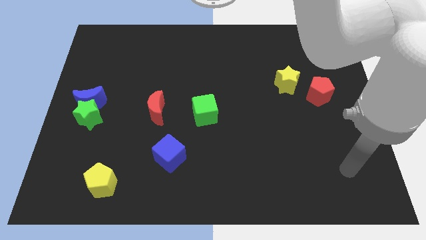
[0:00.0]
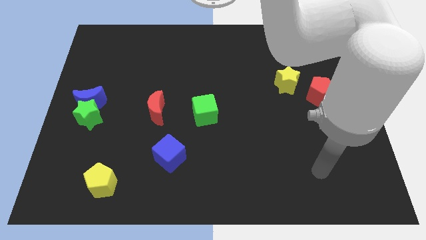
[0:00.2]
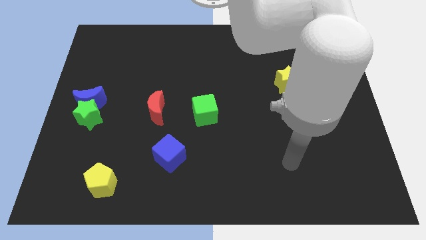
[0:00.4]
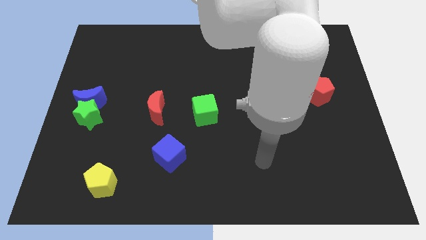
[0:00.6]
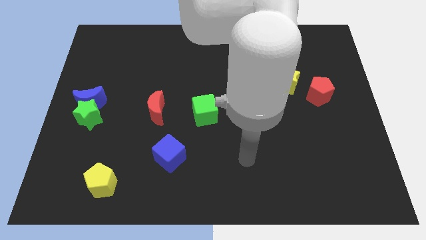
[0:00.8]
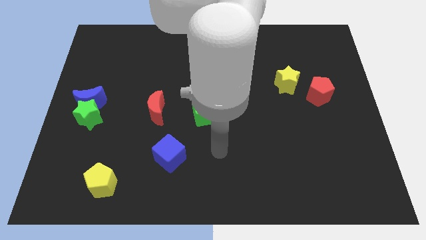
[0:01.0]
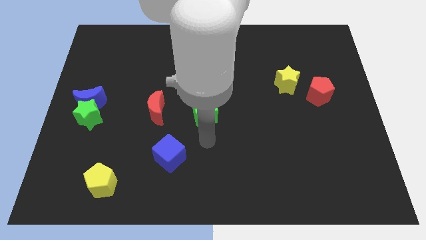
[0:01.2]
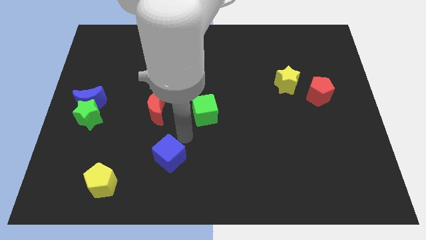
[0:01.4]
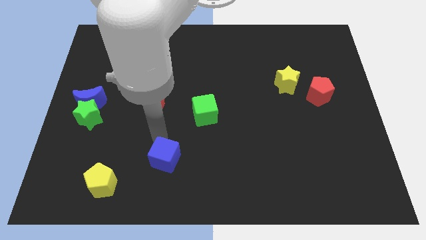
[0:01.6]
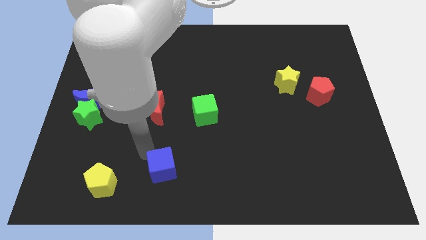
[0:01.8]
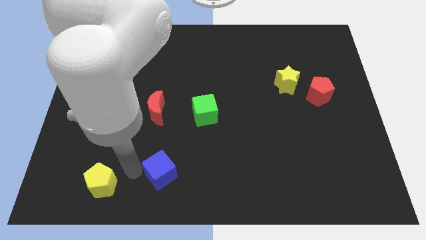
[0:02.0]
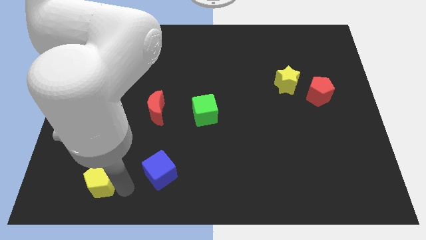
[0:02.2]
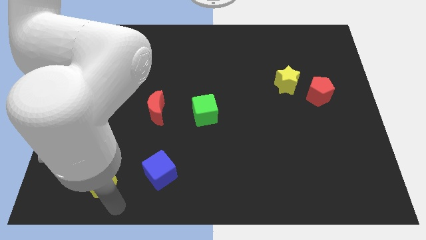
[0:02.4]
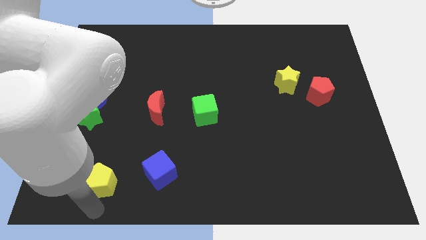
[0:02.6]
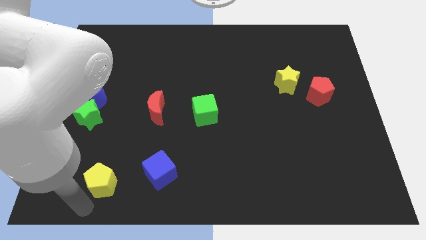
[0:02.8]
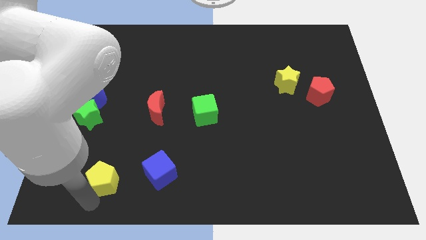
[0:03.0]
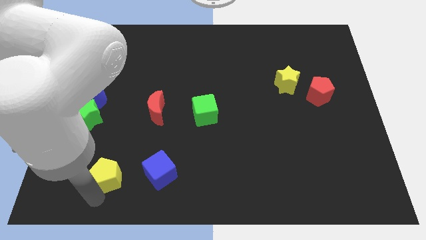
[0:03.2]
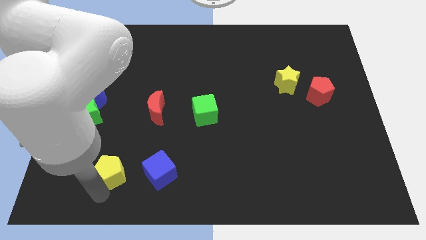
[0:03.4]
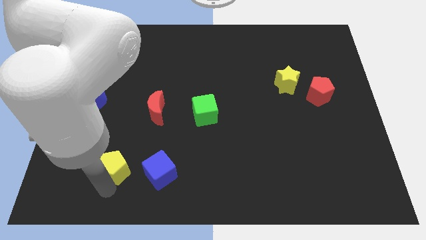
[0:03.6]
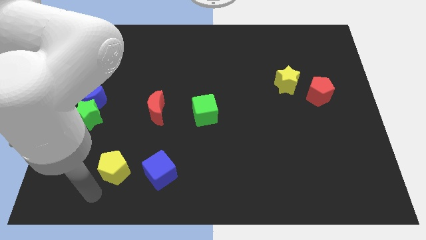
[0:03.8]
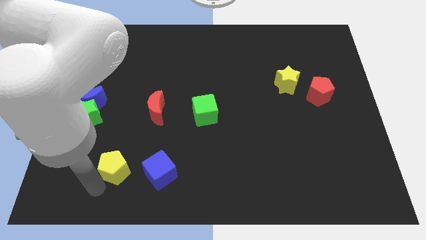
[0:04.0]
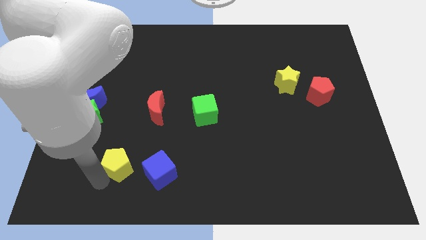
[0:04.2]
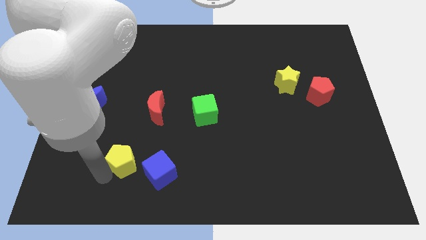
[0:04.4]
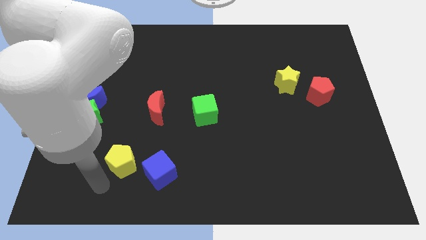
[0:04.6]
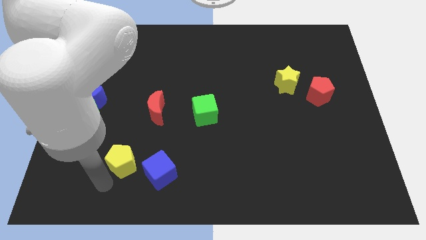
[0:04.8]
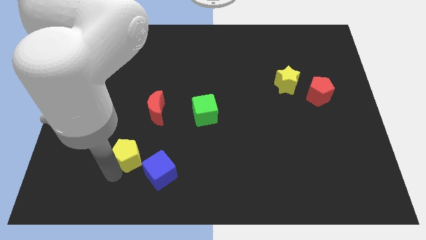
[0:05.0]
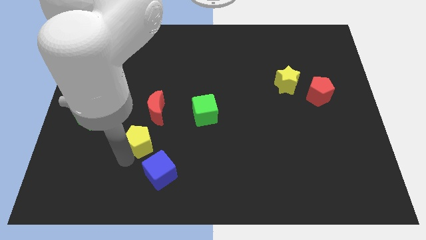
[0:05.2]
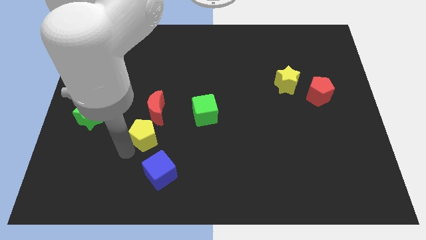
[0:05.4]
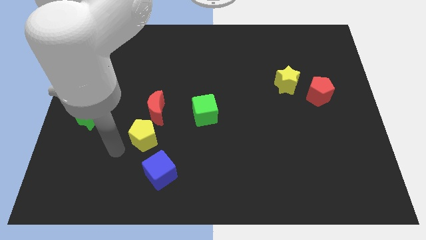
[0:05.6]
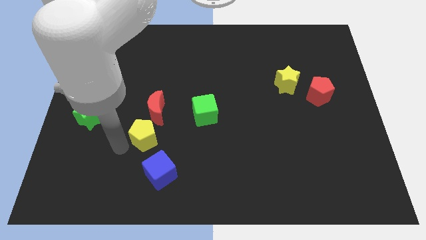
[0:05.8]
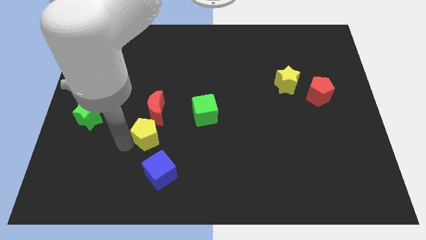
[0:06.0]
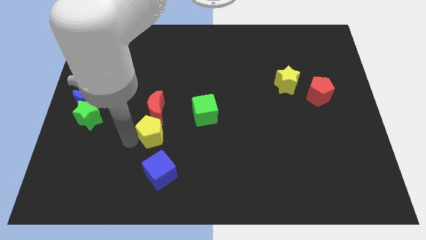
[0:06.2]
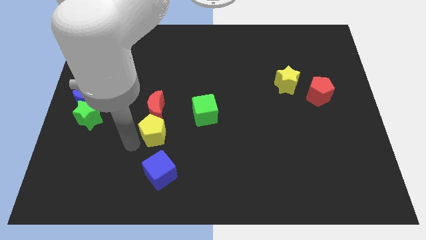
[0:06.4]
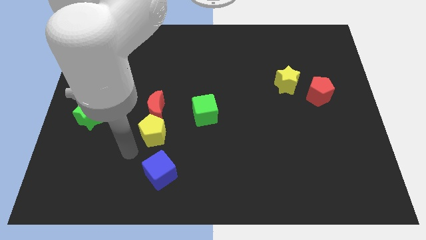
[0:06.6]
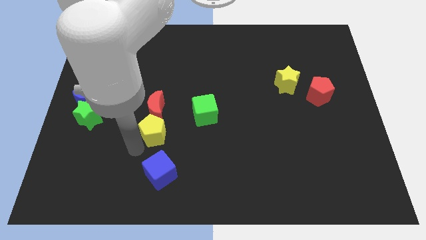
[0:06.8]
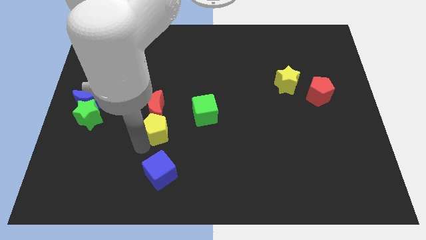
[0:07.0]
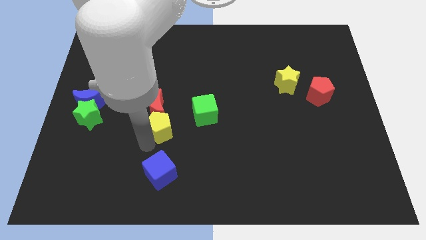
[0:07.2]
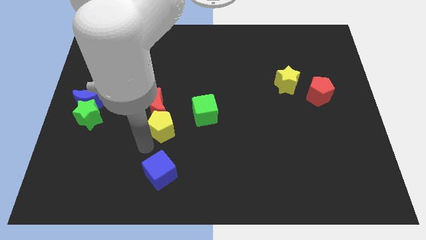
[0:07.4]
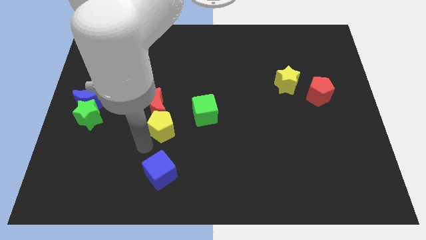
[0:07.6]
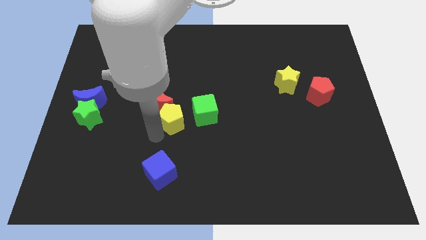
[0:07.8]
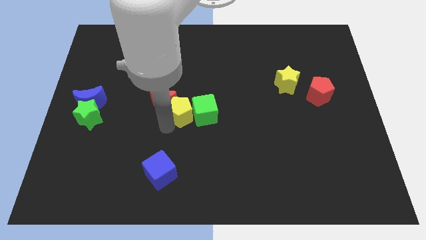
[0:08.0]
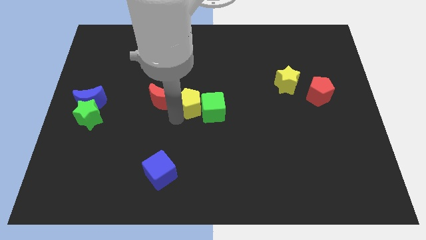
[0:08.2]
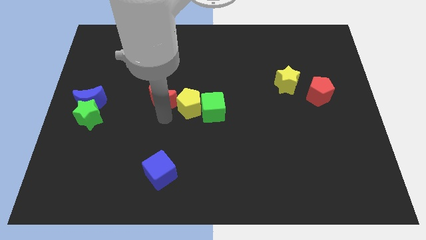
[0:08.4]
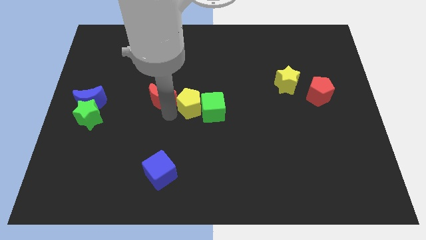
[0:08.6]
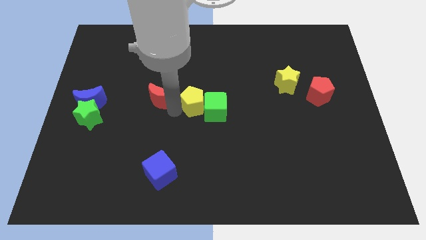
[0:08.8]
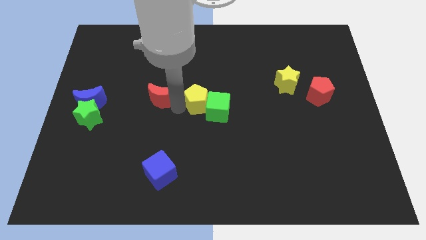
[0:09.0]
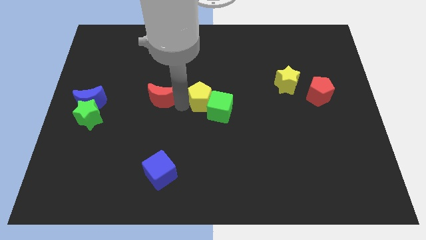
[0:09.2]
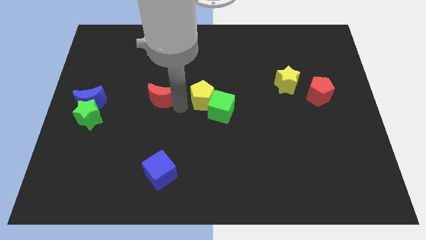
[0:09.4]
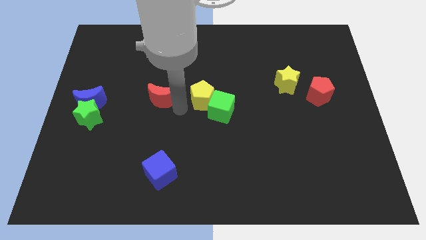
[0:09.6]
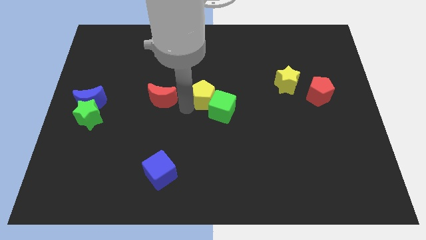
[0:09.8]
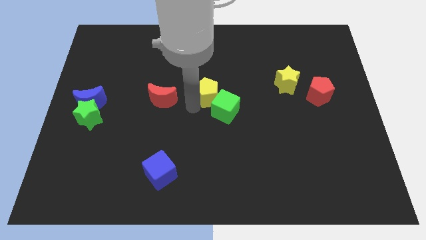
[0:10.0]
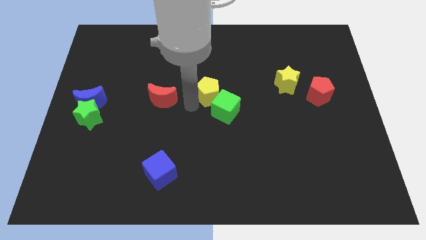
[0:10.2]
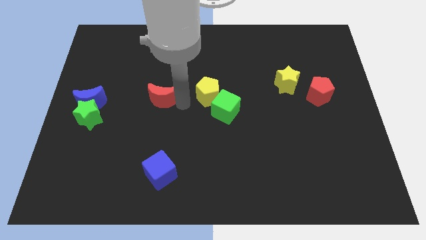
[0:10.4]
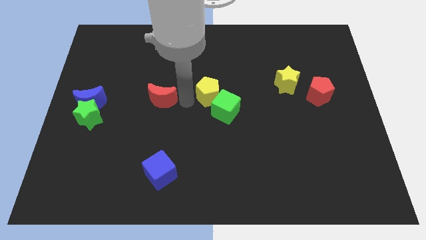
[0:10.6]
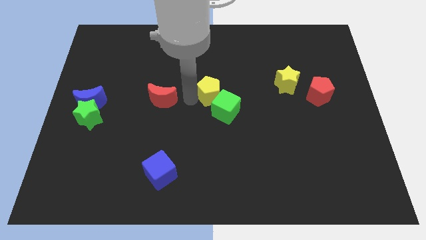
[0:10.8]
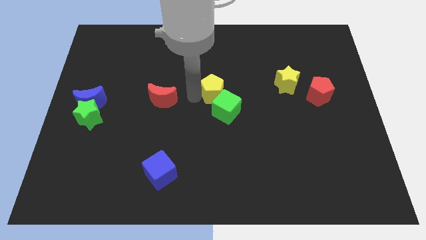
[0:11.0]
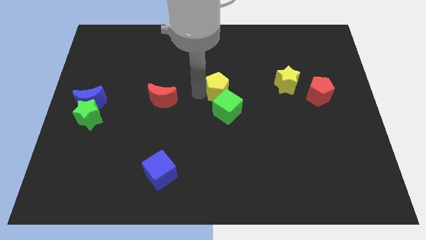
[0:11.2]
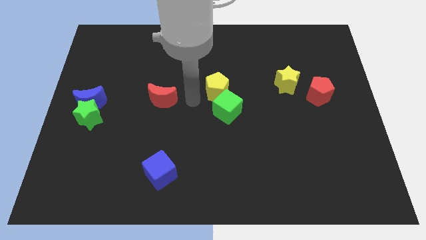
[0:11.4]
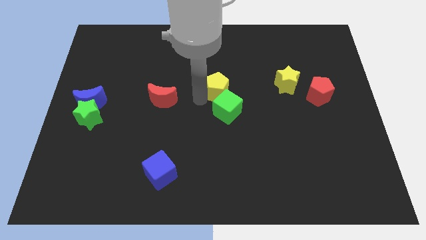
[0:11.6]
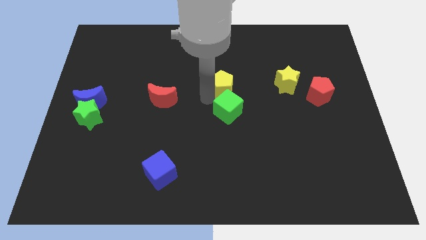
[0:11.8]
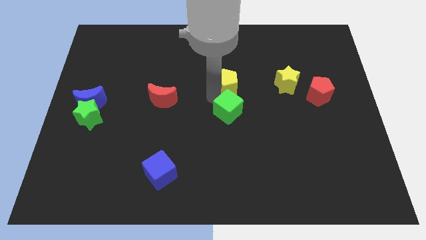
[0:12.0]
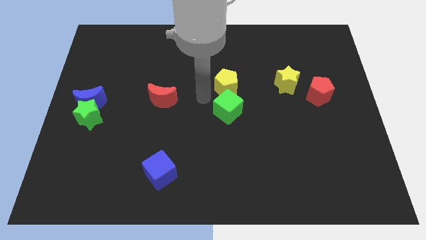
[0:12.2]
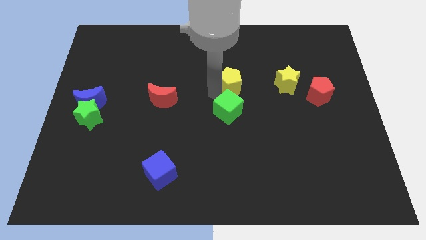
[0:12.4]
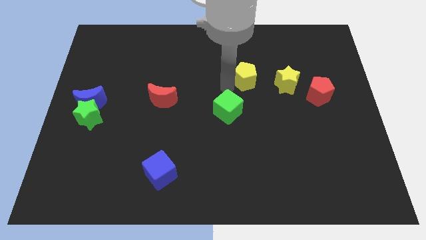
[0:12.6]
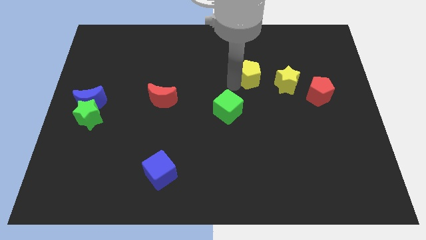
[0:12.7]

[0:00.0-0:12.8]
move the yellow pentagon diagonally up and to the left of the yellow star

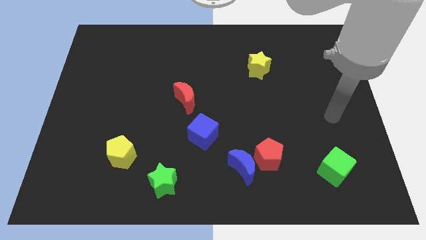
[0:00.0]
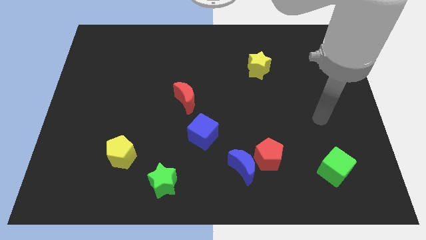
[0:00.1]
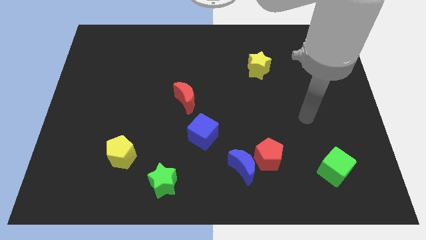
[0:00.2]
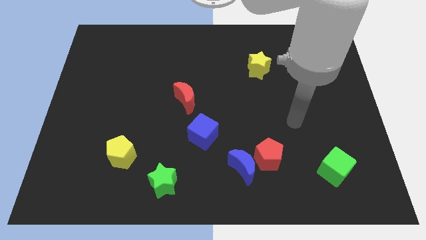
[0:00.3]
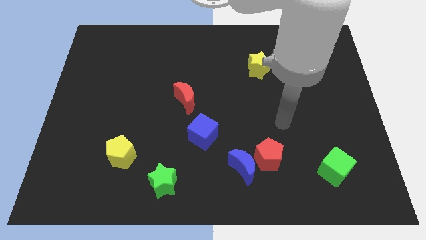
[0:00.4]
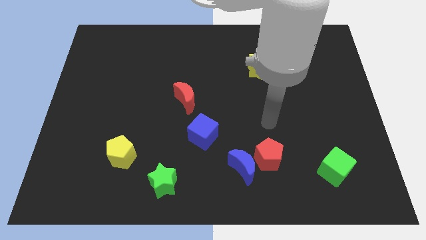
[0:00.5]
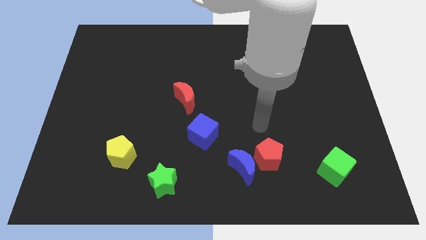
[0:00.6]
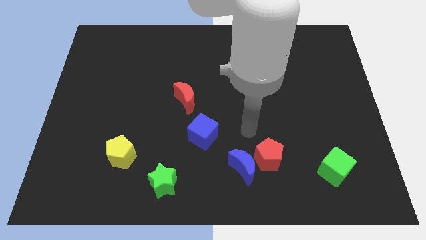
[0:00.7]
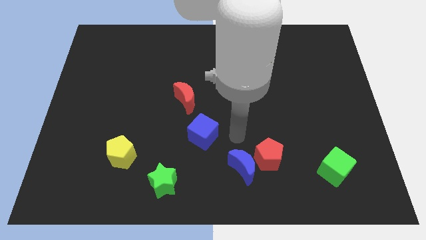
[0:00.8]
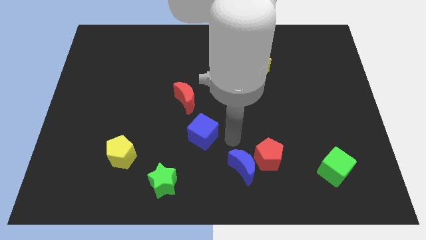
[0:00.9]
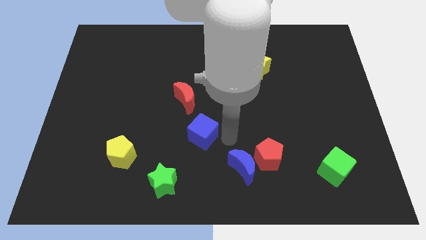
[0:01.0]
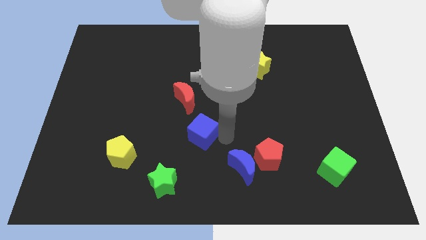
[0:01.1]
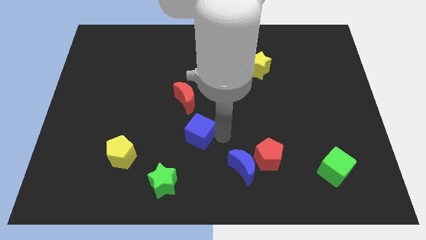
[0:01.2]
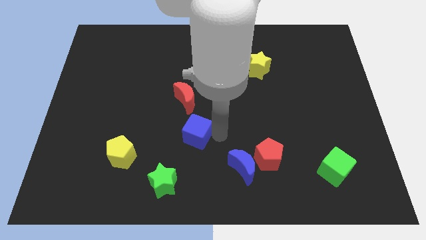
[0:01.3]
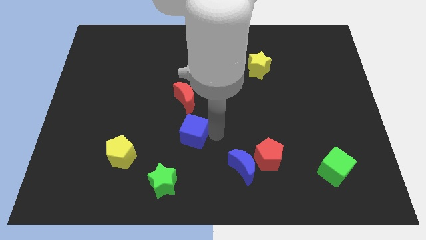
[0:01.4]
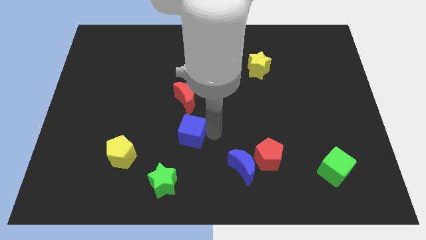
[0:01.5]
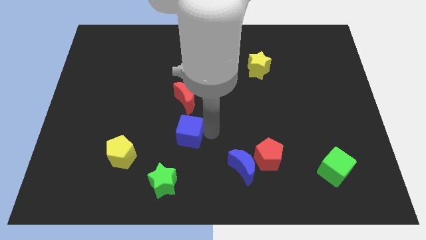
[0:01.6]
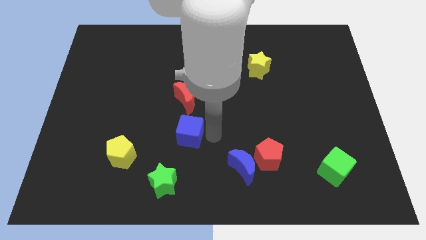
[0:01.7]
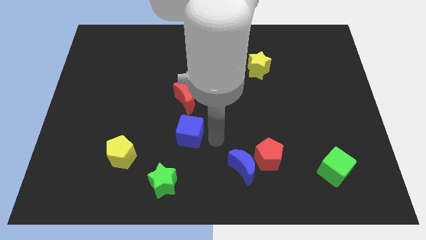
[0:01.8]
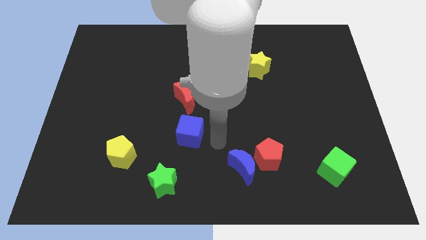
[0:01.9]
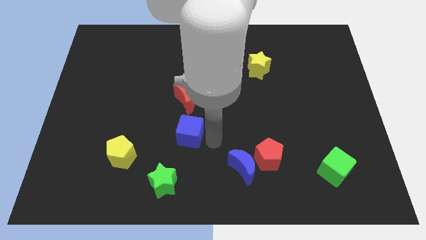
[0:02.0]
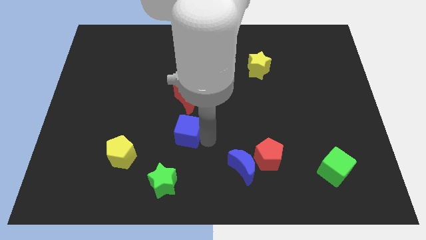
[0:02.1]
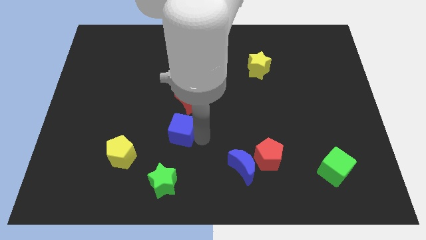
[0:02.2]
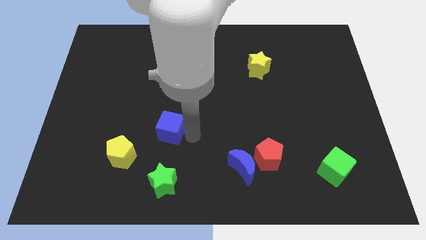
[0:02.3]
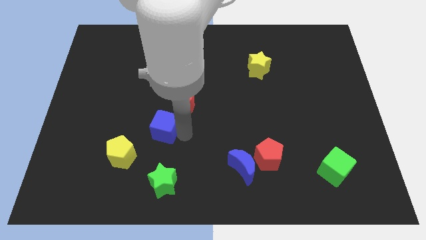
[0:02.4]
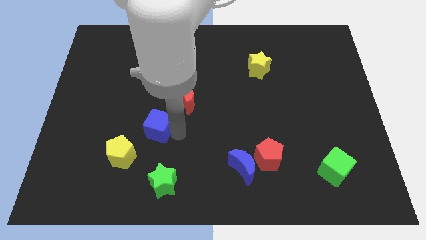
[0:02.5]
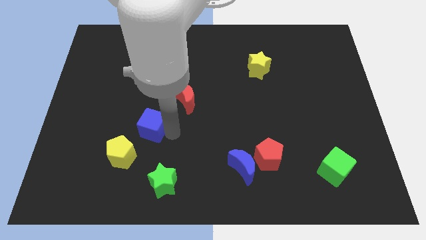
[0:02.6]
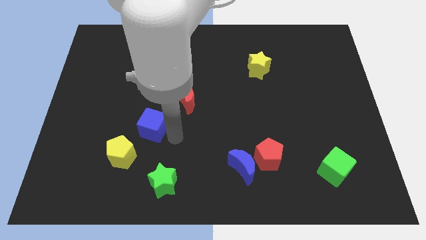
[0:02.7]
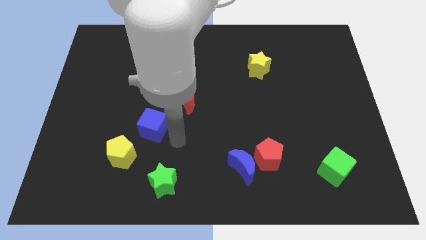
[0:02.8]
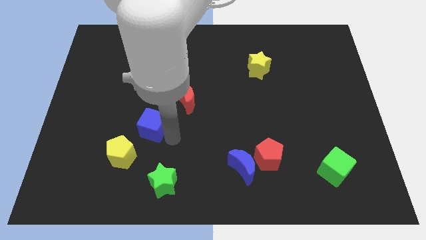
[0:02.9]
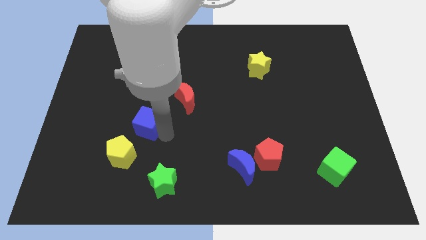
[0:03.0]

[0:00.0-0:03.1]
put the blue cube to the top side of the yellow pentagon
